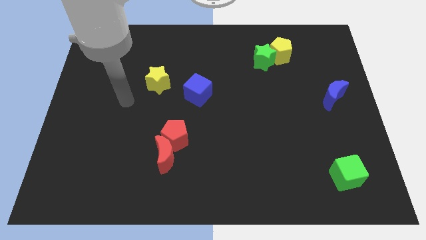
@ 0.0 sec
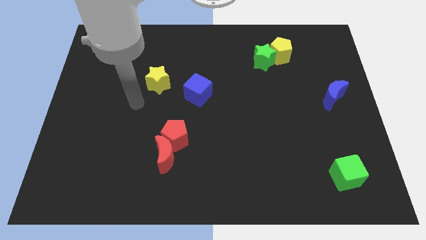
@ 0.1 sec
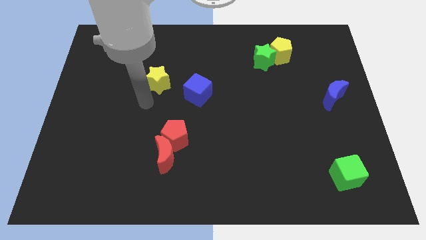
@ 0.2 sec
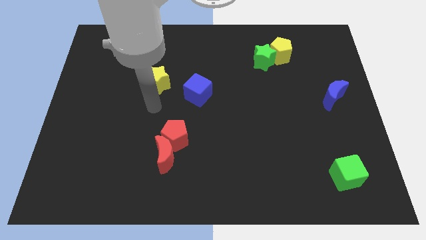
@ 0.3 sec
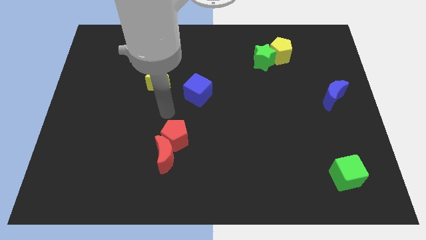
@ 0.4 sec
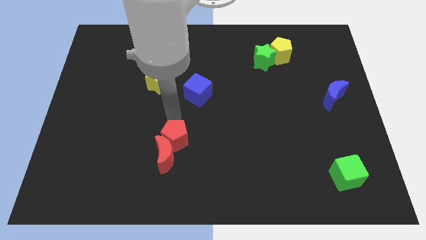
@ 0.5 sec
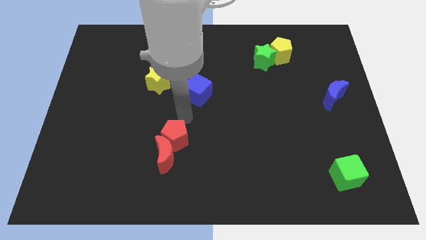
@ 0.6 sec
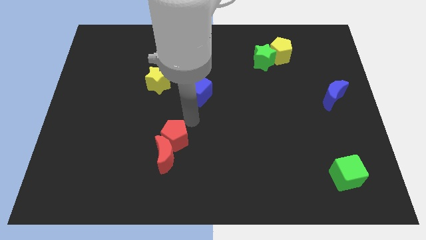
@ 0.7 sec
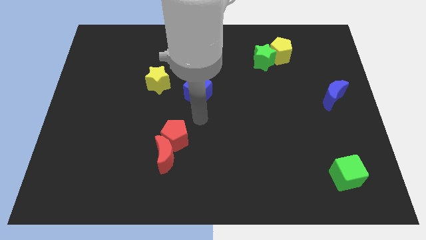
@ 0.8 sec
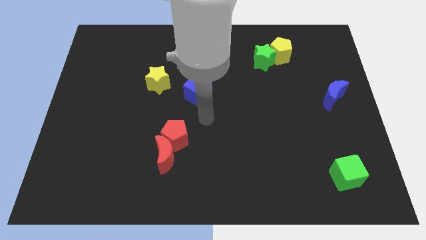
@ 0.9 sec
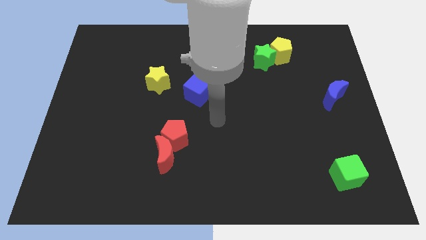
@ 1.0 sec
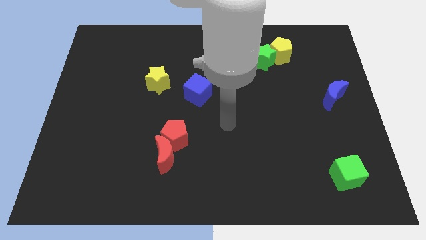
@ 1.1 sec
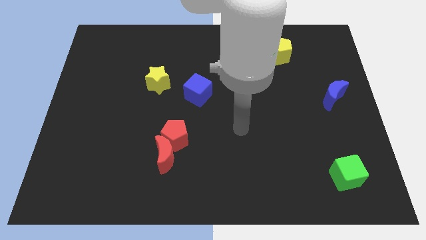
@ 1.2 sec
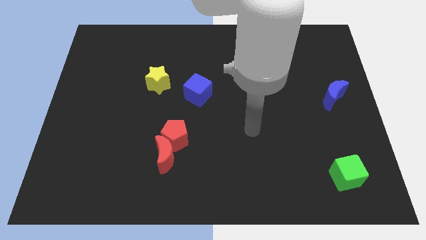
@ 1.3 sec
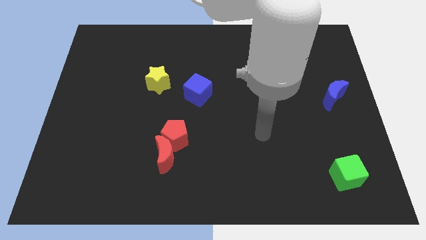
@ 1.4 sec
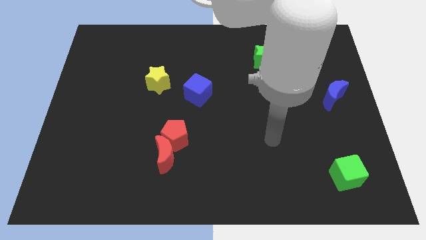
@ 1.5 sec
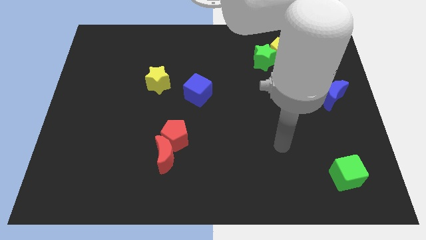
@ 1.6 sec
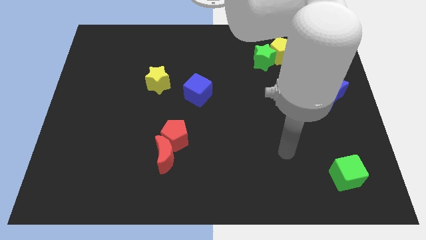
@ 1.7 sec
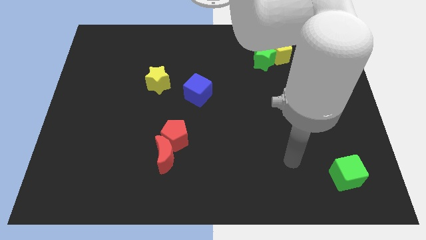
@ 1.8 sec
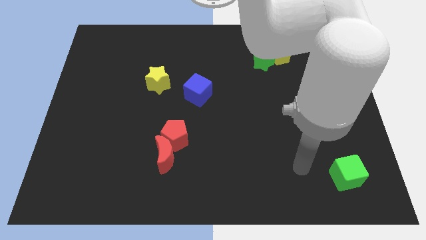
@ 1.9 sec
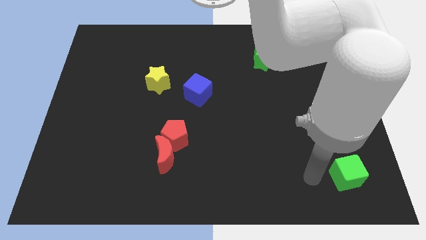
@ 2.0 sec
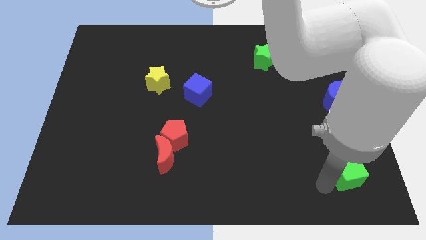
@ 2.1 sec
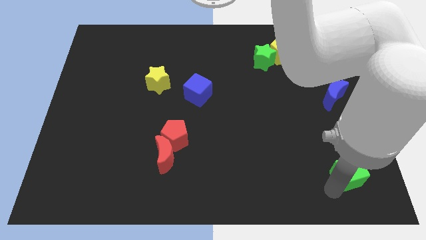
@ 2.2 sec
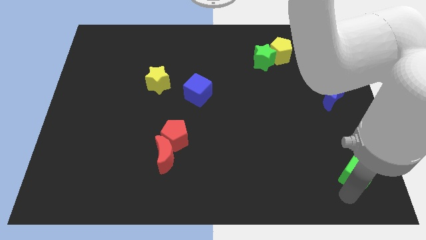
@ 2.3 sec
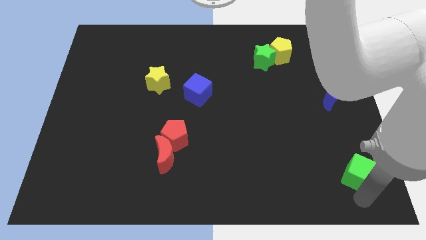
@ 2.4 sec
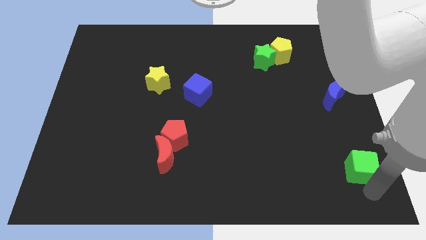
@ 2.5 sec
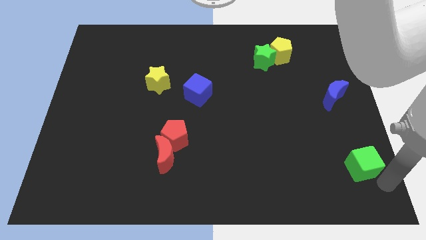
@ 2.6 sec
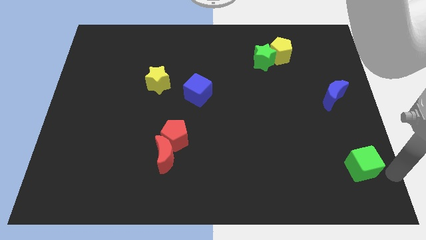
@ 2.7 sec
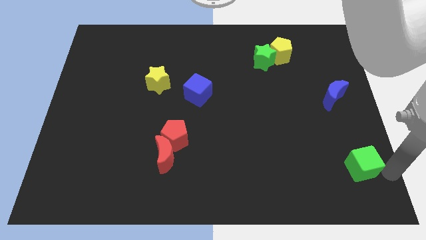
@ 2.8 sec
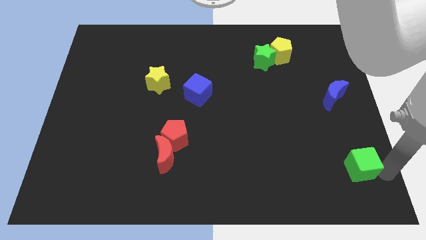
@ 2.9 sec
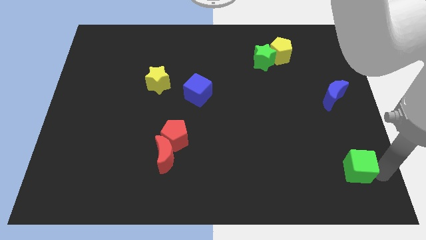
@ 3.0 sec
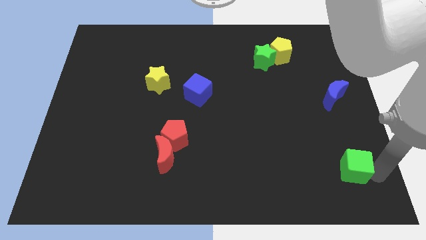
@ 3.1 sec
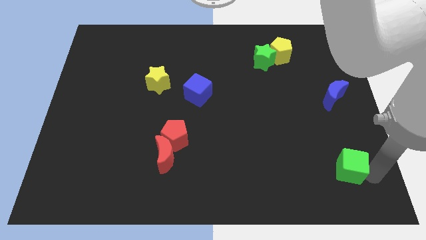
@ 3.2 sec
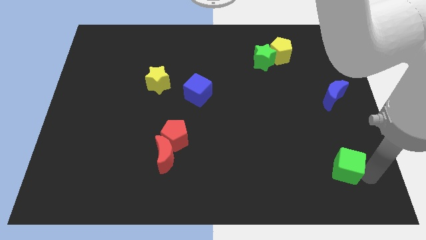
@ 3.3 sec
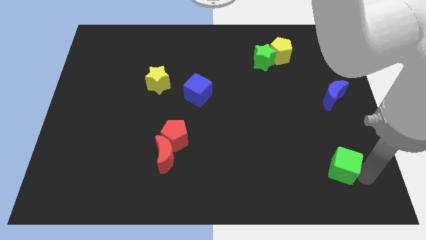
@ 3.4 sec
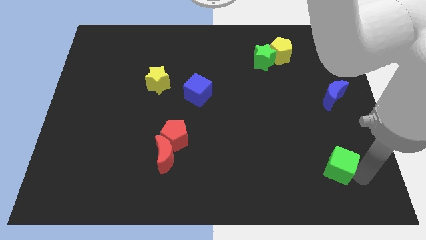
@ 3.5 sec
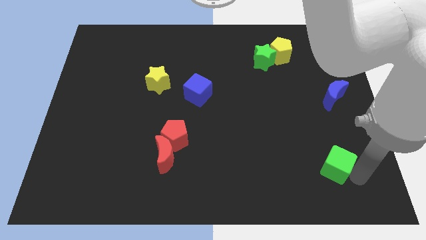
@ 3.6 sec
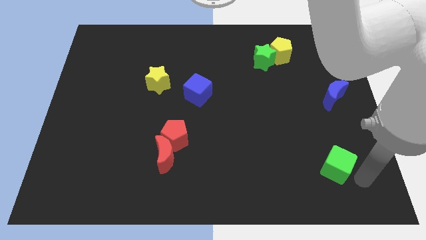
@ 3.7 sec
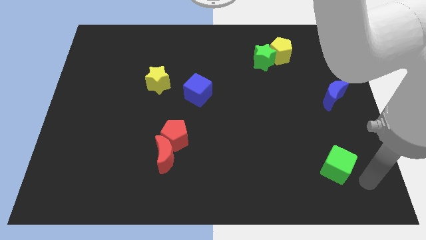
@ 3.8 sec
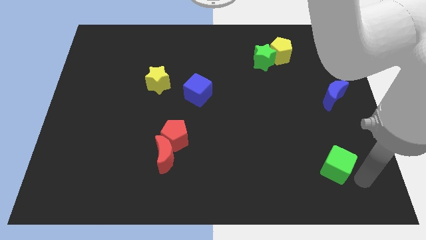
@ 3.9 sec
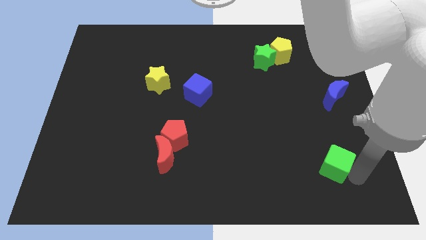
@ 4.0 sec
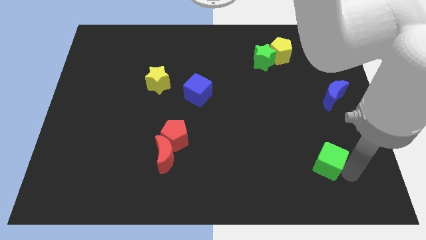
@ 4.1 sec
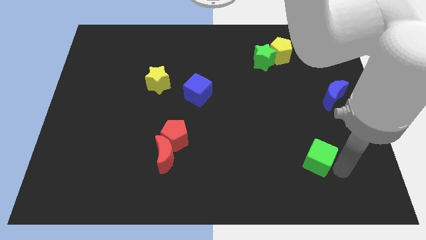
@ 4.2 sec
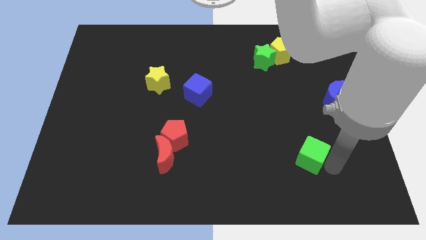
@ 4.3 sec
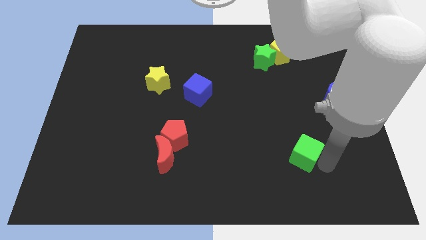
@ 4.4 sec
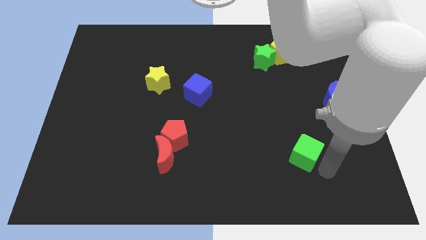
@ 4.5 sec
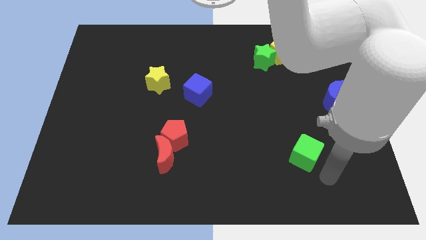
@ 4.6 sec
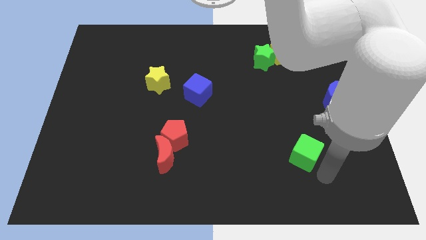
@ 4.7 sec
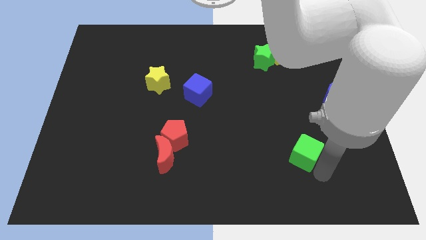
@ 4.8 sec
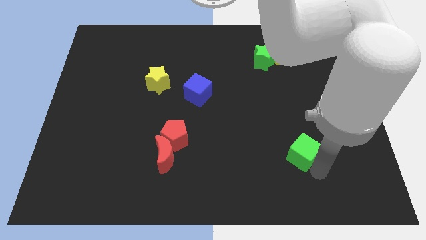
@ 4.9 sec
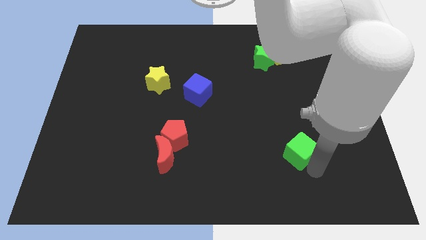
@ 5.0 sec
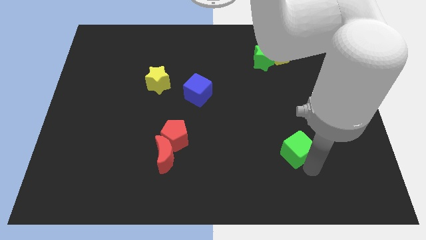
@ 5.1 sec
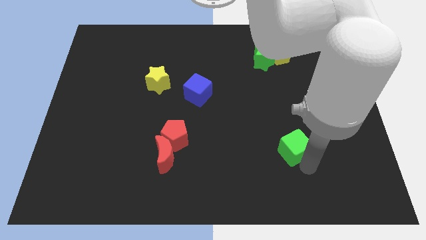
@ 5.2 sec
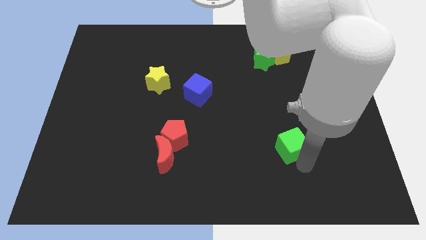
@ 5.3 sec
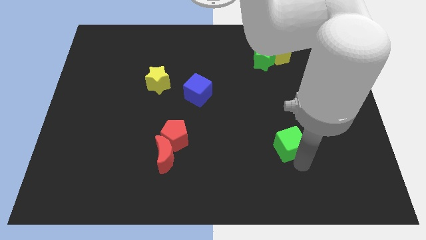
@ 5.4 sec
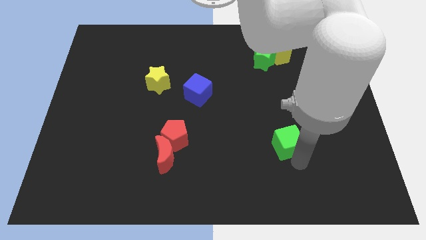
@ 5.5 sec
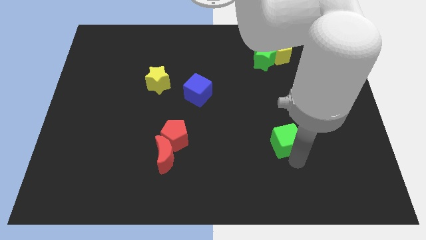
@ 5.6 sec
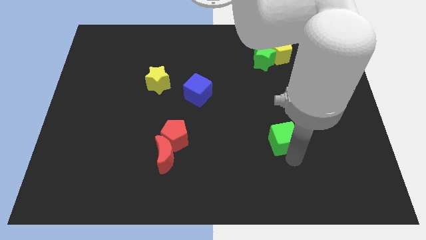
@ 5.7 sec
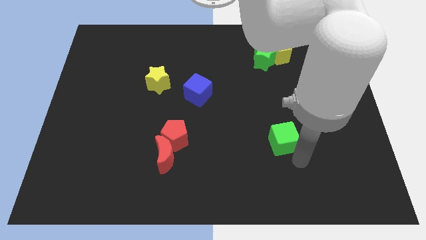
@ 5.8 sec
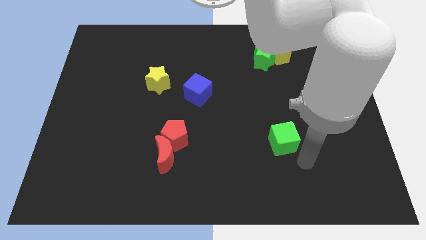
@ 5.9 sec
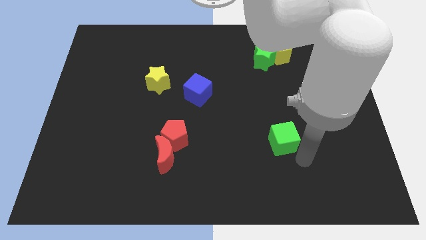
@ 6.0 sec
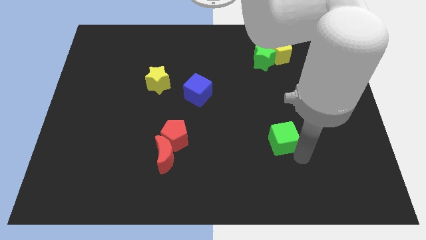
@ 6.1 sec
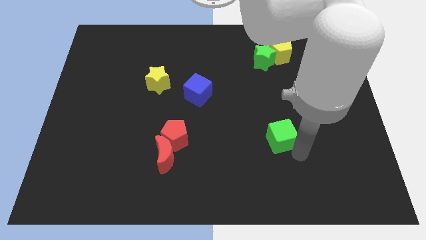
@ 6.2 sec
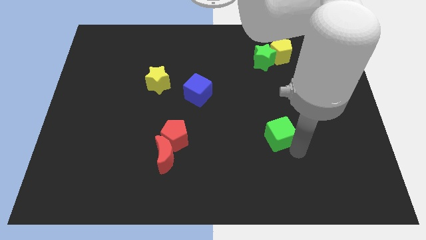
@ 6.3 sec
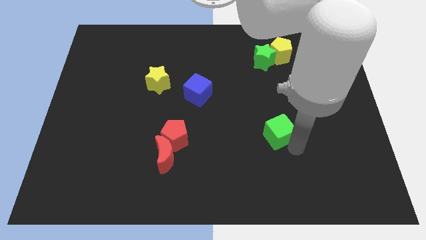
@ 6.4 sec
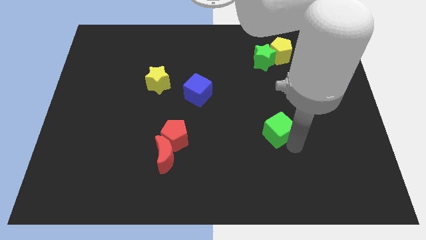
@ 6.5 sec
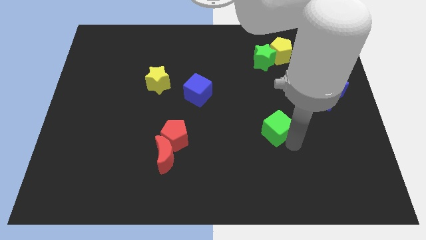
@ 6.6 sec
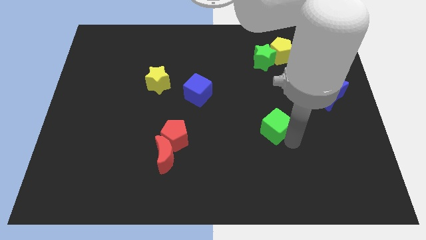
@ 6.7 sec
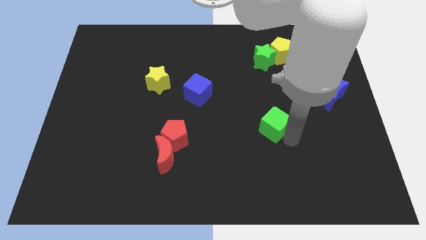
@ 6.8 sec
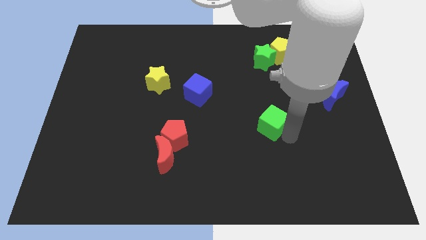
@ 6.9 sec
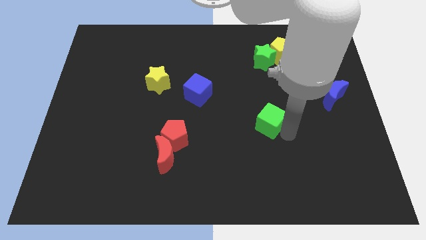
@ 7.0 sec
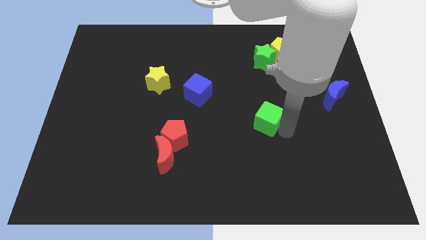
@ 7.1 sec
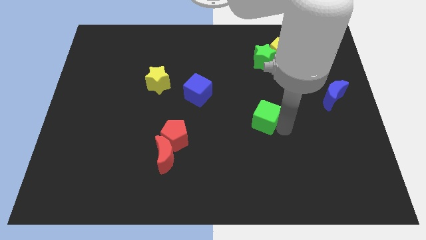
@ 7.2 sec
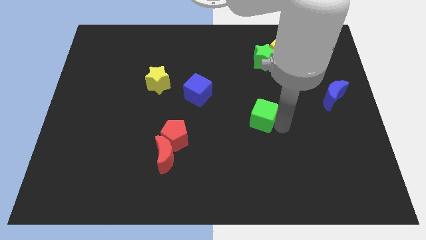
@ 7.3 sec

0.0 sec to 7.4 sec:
slide the green cube to the center
